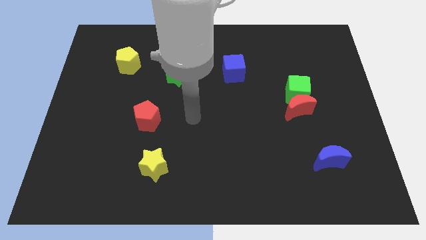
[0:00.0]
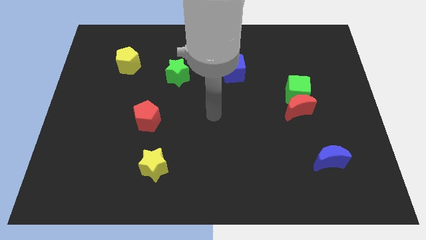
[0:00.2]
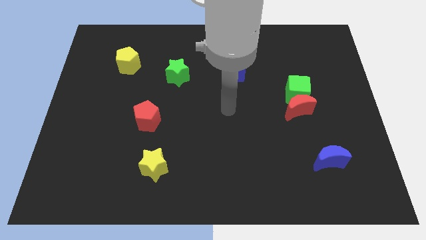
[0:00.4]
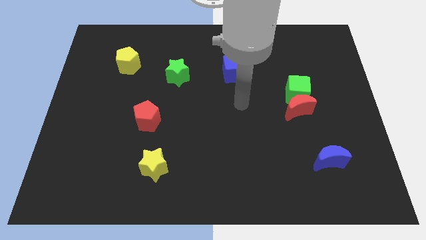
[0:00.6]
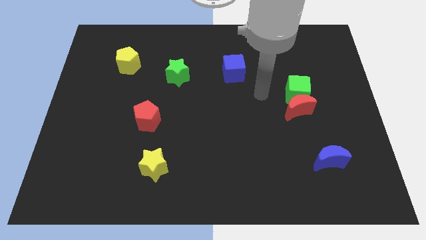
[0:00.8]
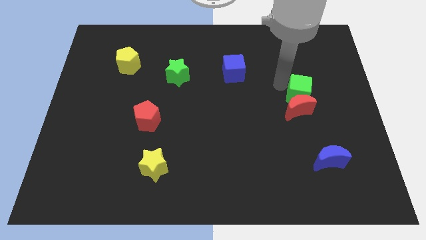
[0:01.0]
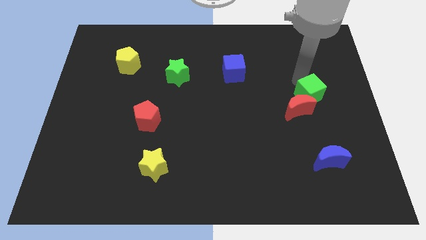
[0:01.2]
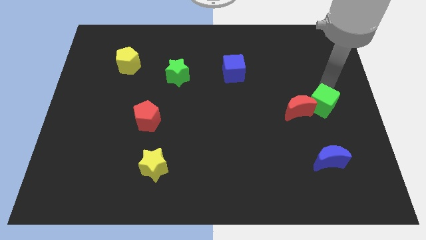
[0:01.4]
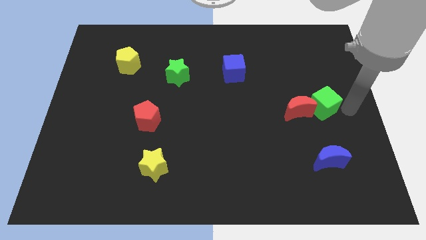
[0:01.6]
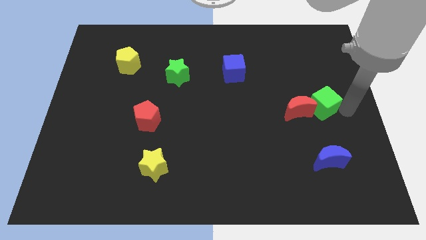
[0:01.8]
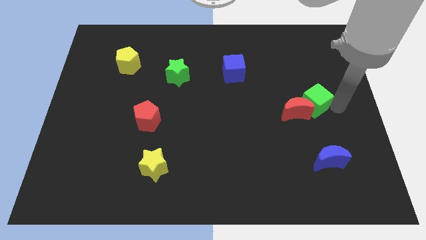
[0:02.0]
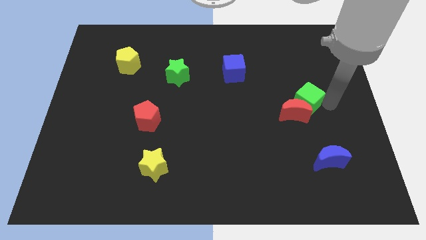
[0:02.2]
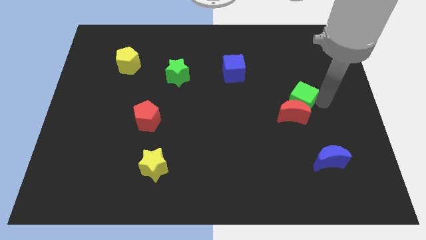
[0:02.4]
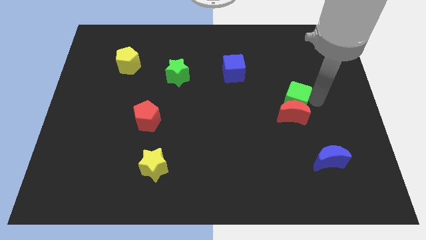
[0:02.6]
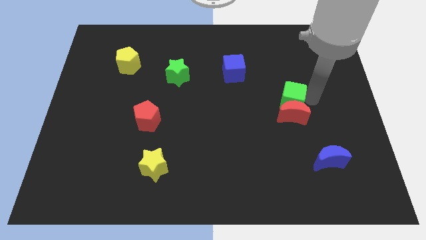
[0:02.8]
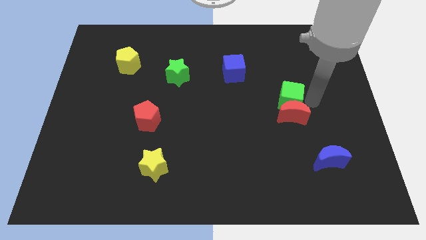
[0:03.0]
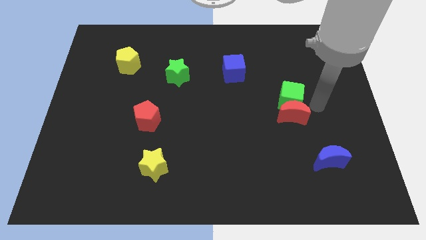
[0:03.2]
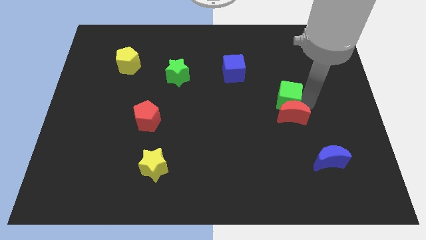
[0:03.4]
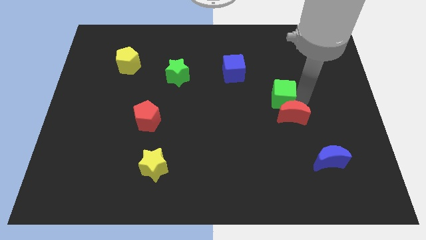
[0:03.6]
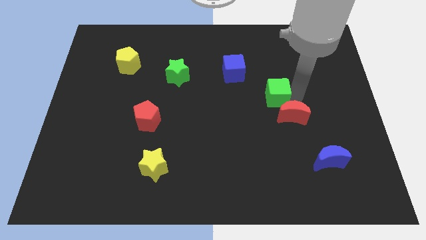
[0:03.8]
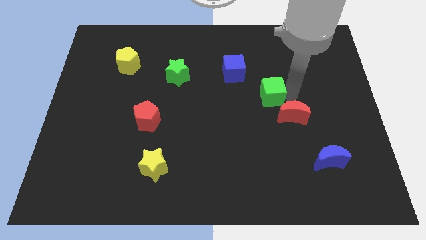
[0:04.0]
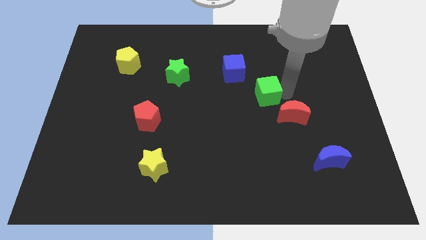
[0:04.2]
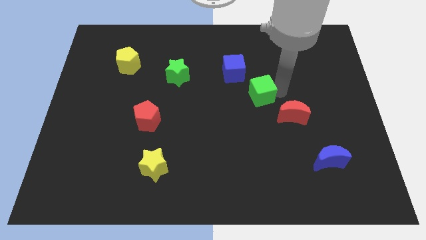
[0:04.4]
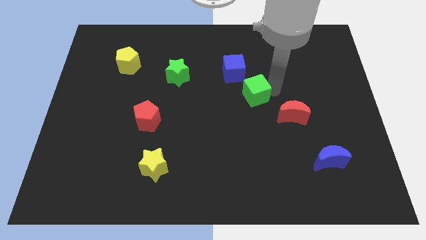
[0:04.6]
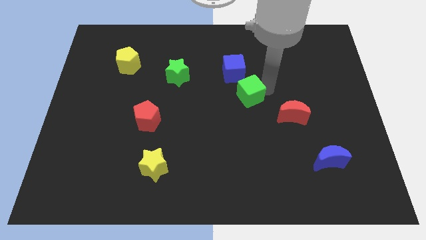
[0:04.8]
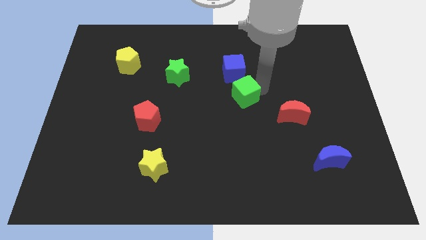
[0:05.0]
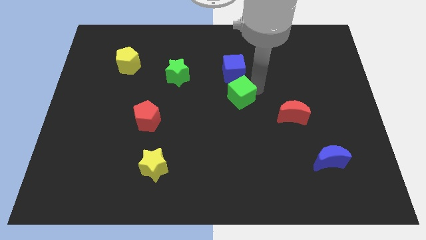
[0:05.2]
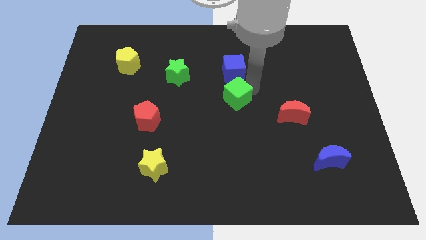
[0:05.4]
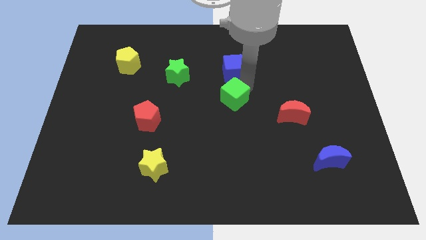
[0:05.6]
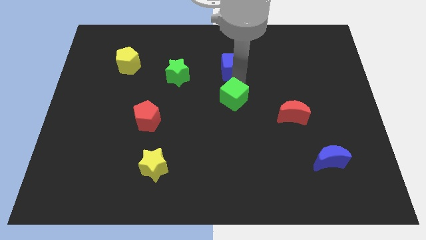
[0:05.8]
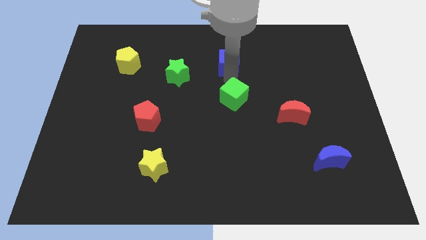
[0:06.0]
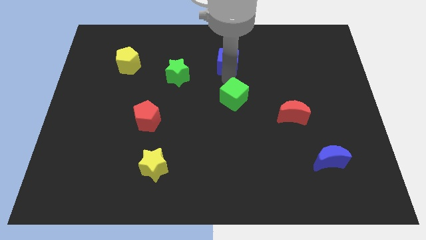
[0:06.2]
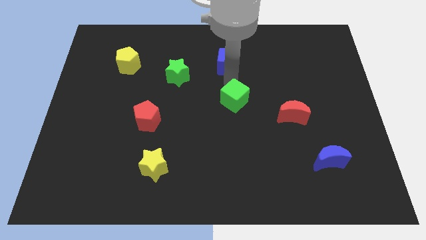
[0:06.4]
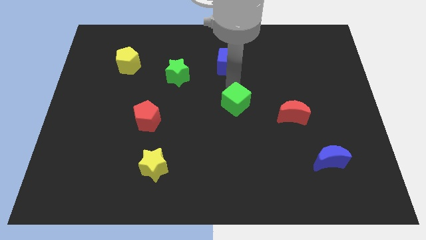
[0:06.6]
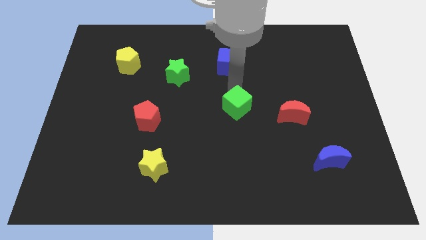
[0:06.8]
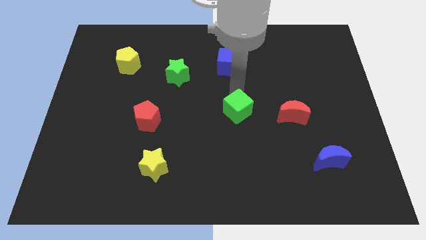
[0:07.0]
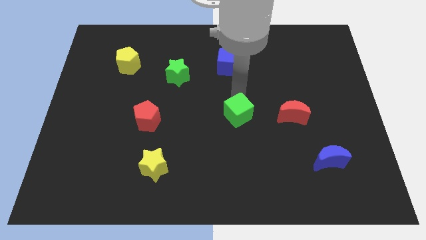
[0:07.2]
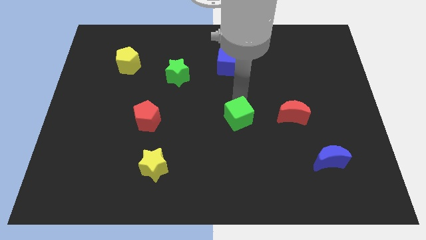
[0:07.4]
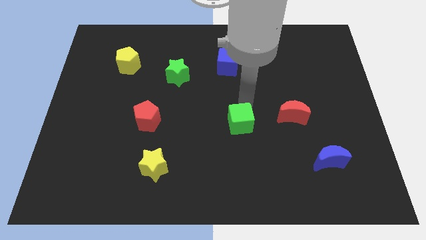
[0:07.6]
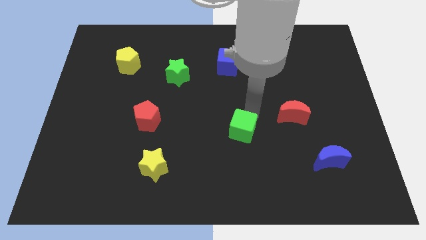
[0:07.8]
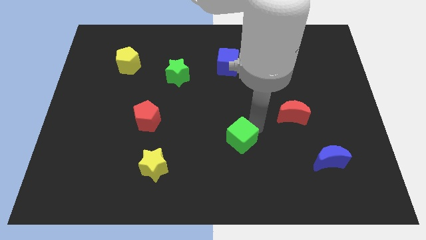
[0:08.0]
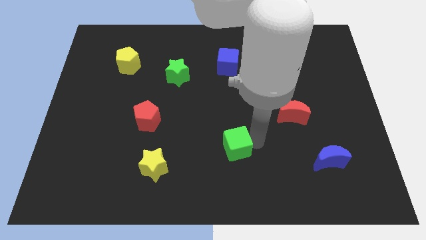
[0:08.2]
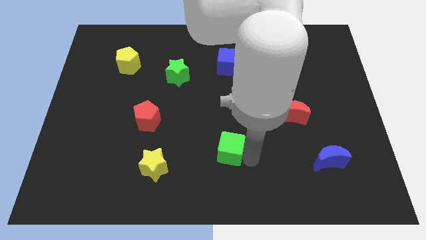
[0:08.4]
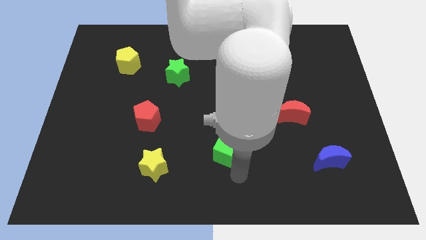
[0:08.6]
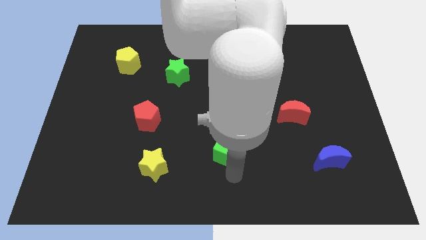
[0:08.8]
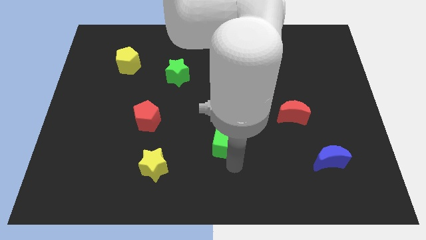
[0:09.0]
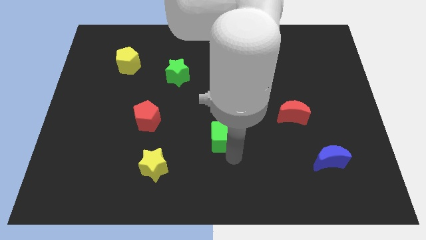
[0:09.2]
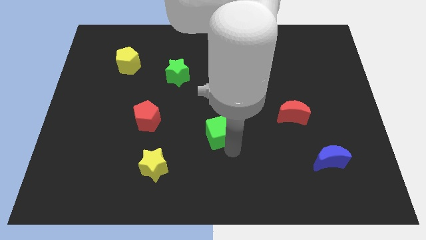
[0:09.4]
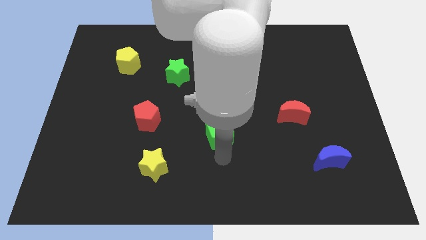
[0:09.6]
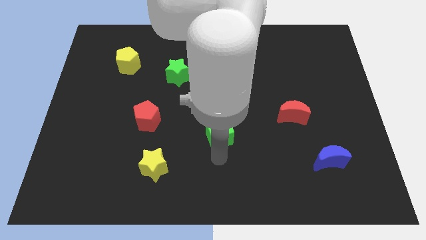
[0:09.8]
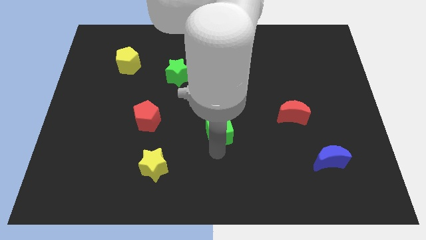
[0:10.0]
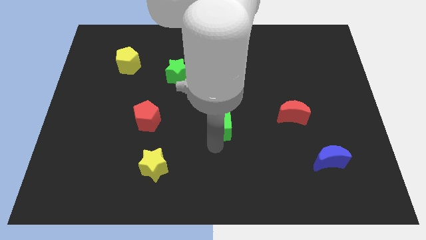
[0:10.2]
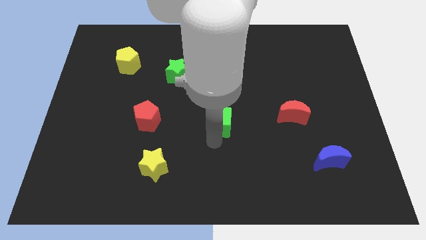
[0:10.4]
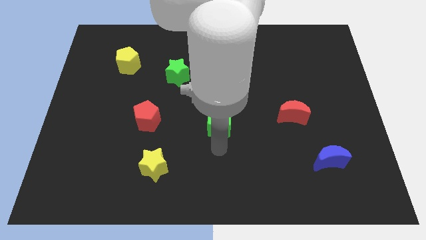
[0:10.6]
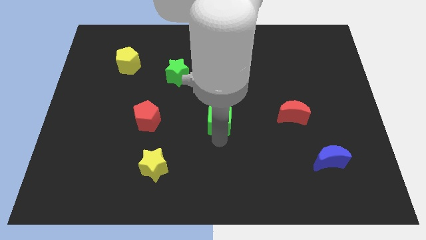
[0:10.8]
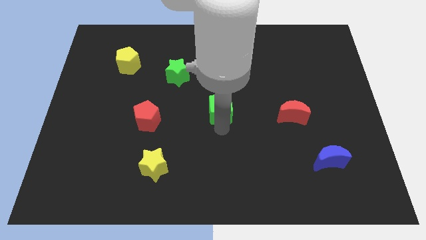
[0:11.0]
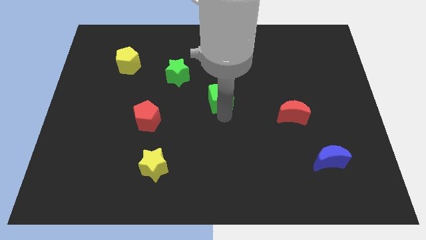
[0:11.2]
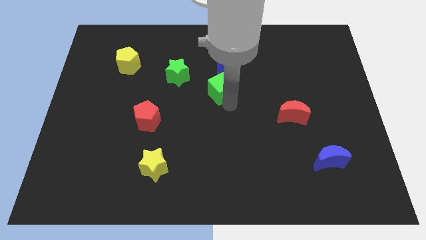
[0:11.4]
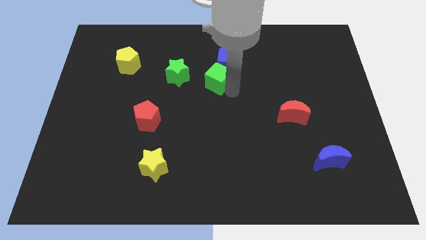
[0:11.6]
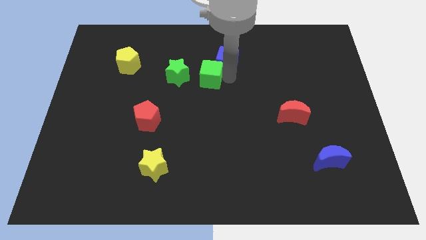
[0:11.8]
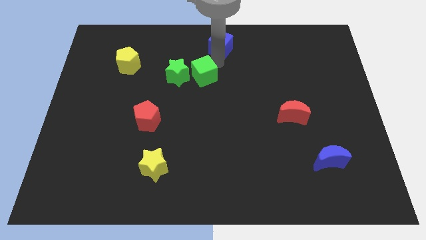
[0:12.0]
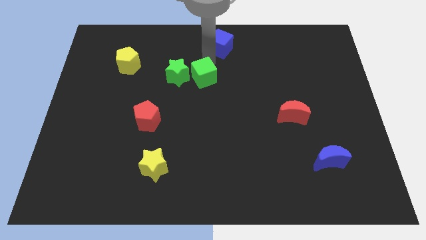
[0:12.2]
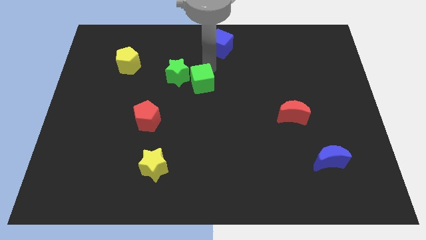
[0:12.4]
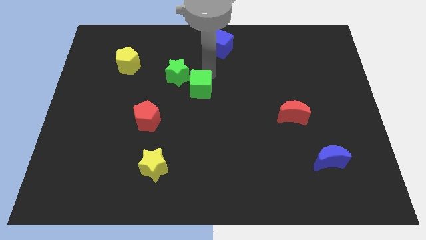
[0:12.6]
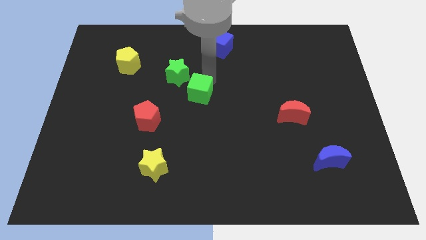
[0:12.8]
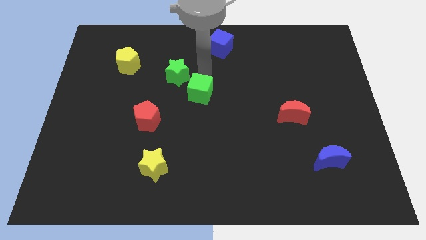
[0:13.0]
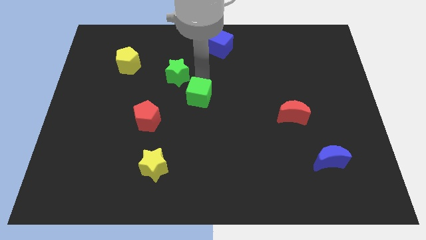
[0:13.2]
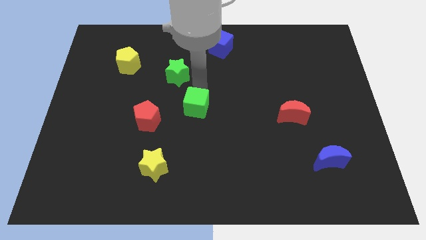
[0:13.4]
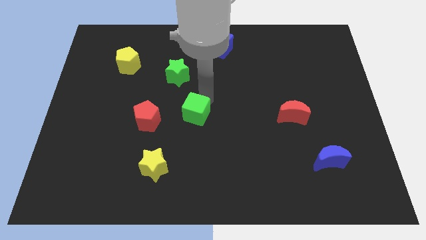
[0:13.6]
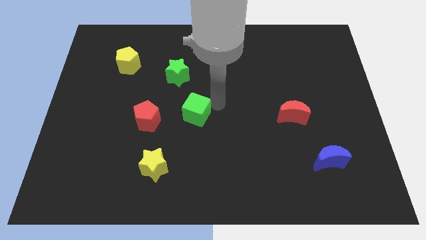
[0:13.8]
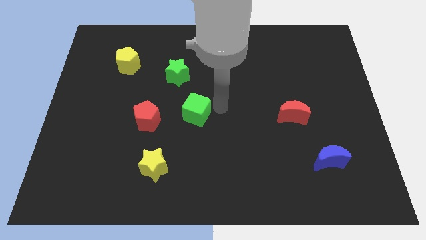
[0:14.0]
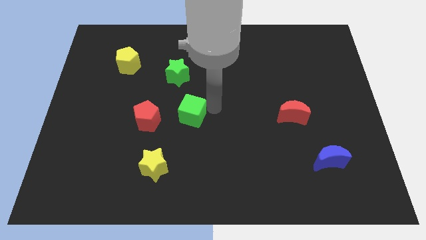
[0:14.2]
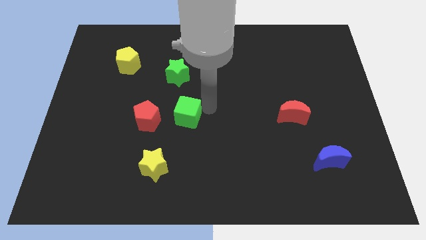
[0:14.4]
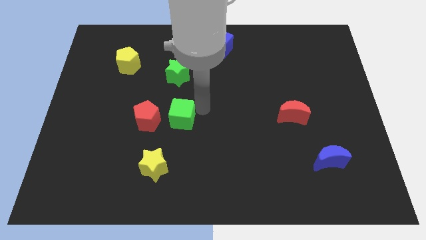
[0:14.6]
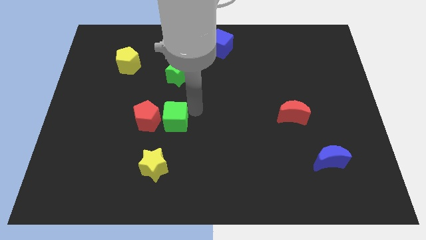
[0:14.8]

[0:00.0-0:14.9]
slide the green cube to the red pentagon

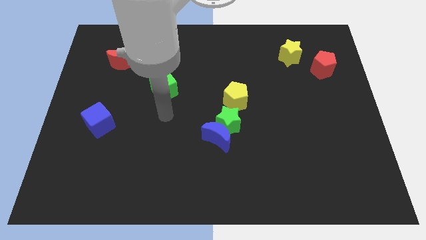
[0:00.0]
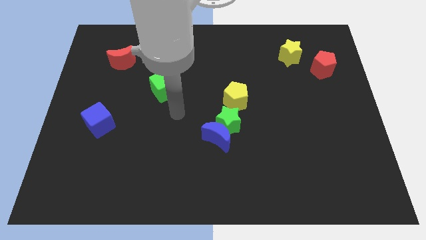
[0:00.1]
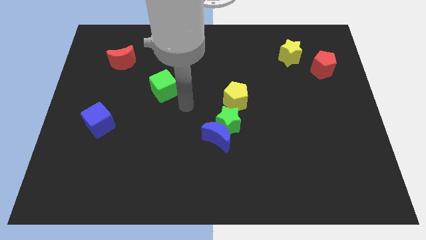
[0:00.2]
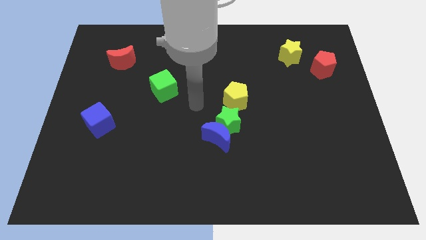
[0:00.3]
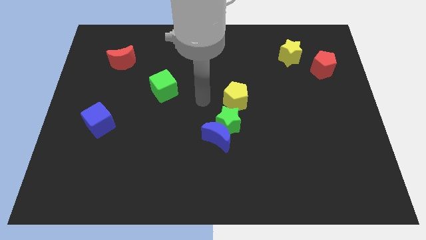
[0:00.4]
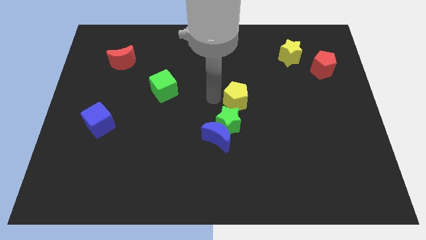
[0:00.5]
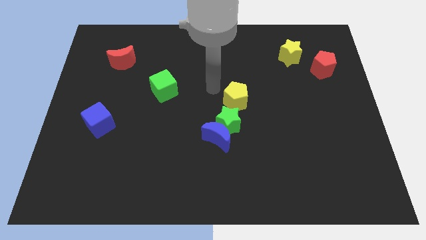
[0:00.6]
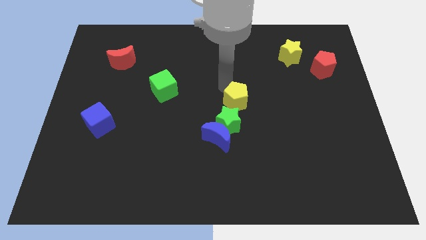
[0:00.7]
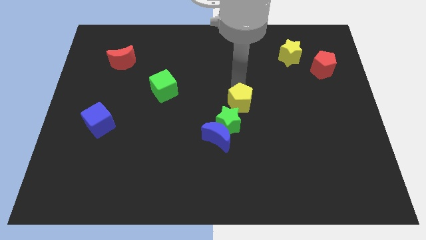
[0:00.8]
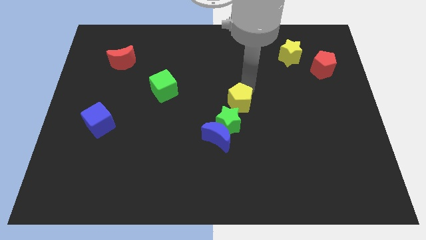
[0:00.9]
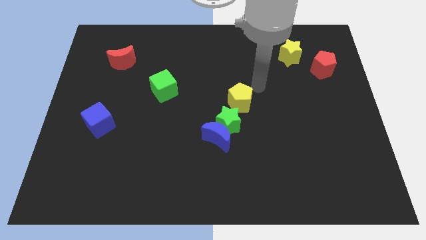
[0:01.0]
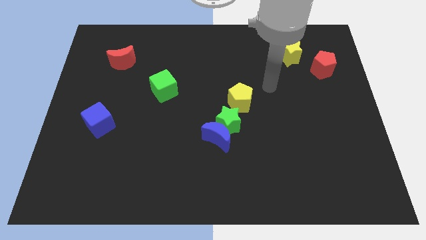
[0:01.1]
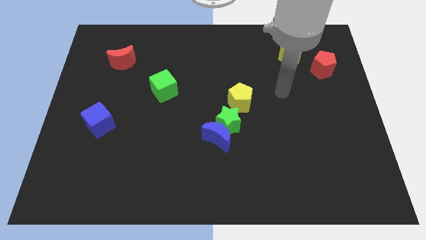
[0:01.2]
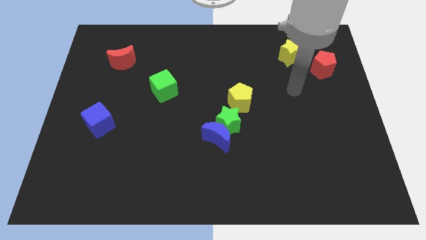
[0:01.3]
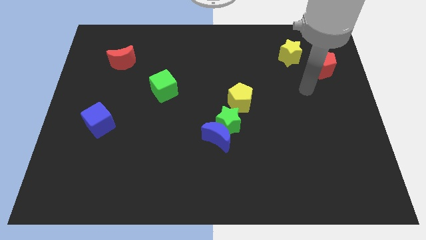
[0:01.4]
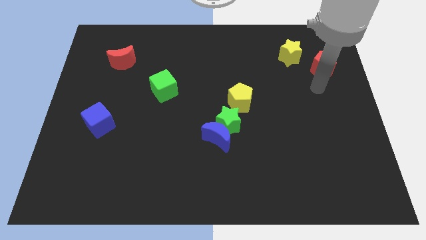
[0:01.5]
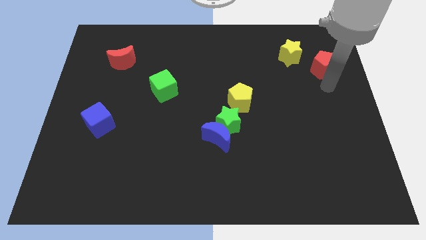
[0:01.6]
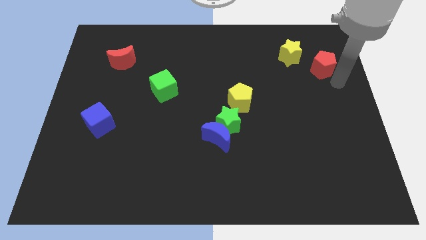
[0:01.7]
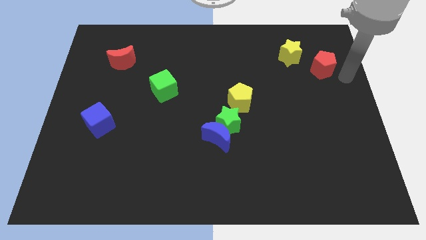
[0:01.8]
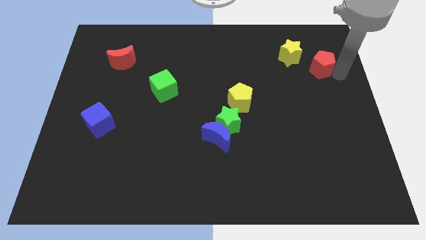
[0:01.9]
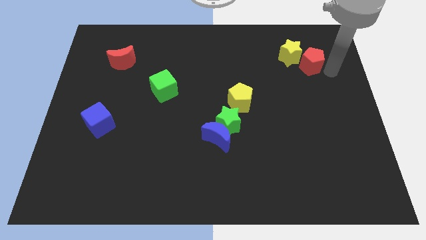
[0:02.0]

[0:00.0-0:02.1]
move the red pentagon towards the yellow star
